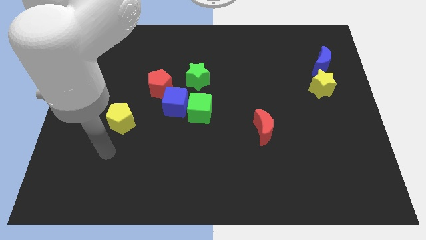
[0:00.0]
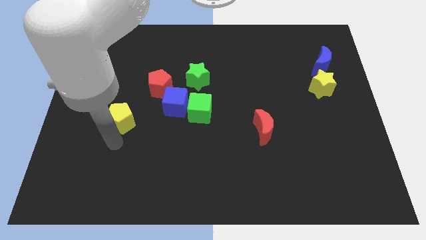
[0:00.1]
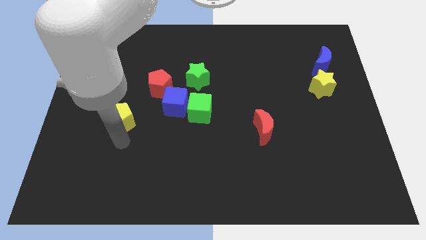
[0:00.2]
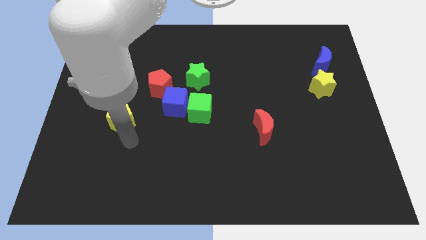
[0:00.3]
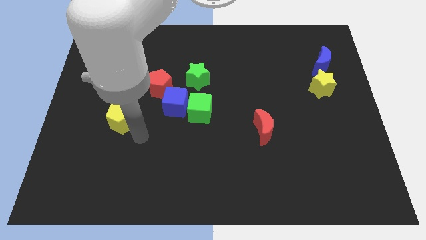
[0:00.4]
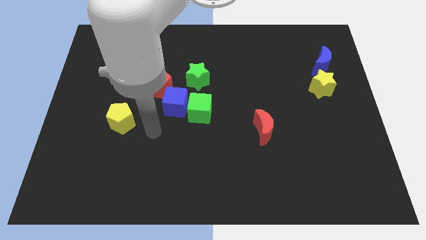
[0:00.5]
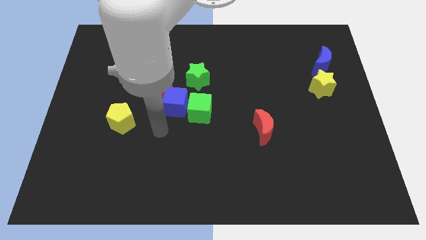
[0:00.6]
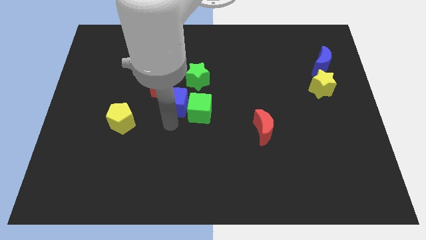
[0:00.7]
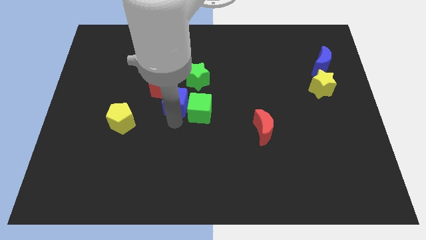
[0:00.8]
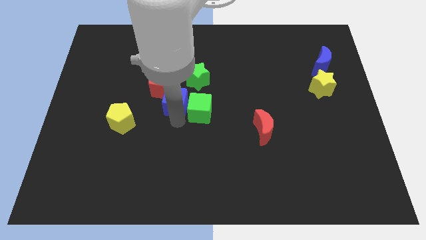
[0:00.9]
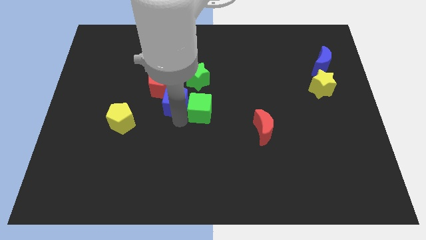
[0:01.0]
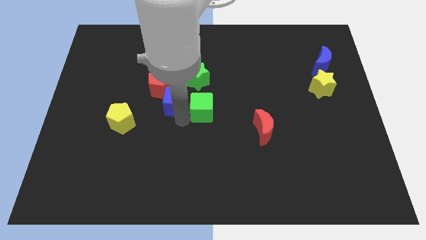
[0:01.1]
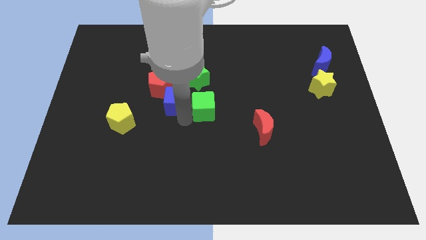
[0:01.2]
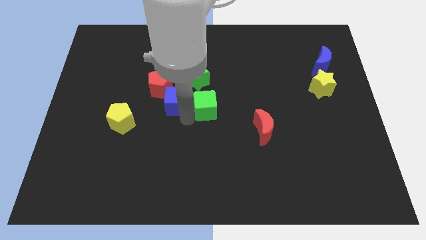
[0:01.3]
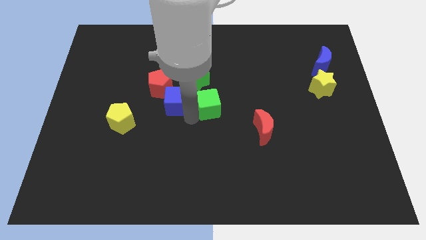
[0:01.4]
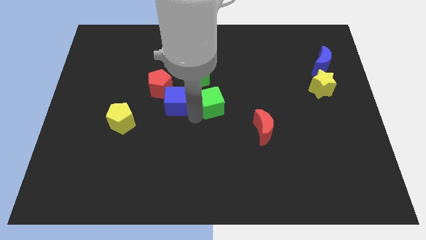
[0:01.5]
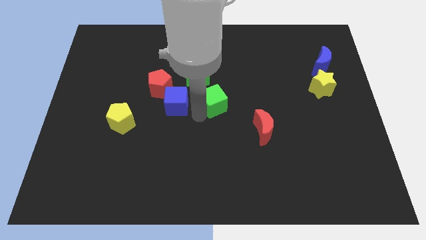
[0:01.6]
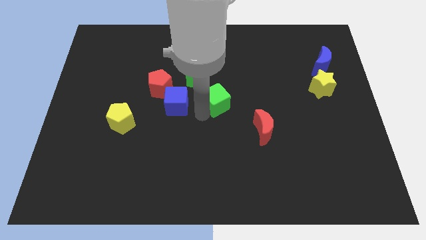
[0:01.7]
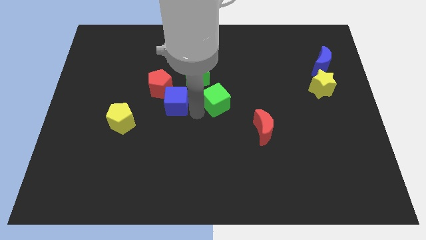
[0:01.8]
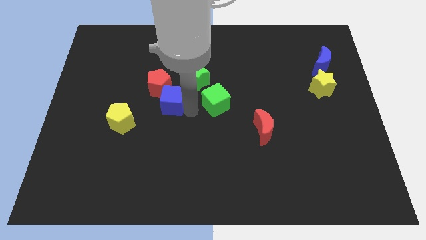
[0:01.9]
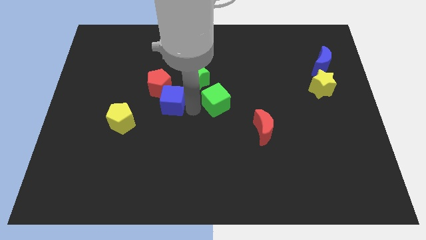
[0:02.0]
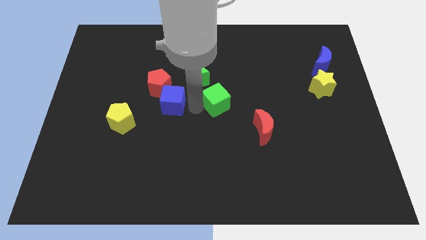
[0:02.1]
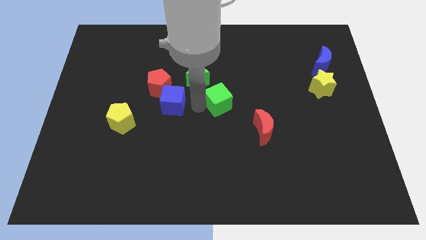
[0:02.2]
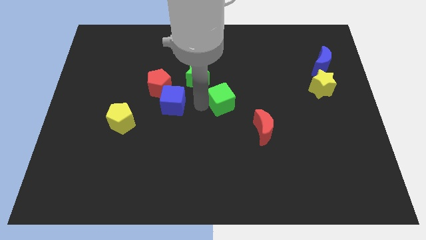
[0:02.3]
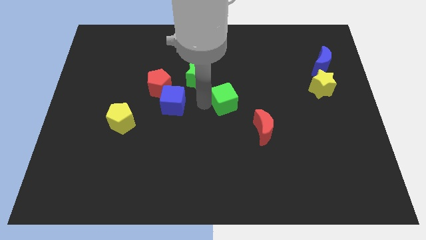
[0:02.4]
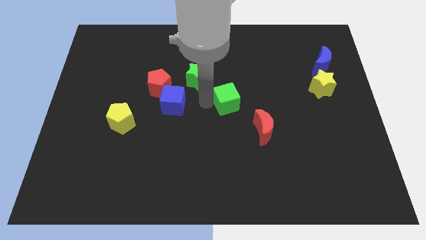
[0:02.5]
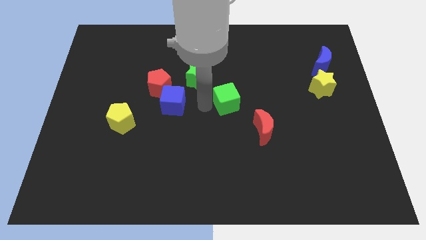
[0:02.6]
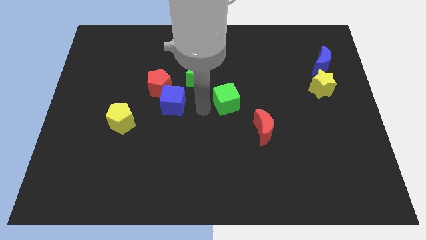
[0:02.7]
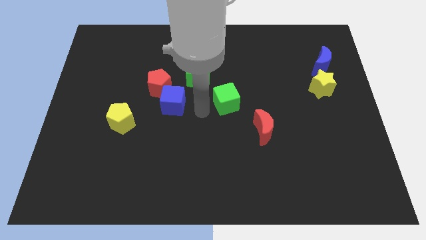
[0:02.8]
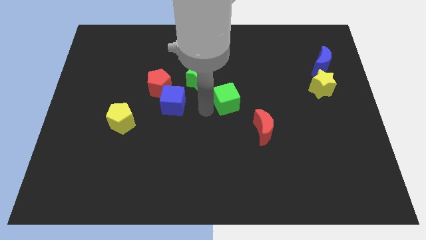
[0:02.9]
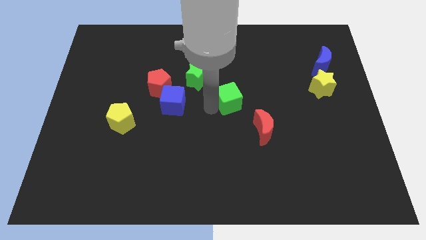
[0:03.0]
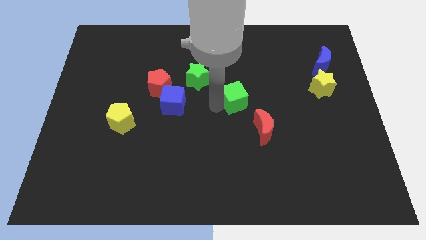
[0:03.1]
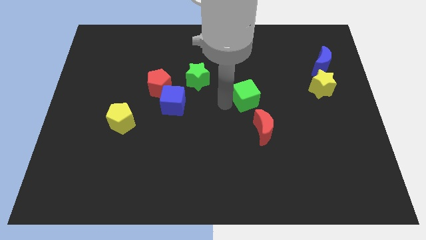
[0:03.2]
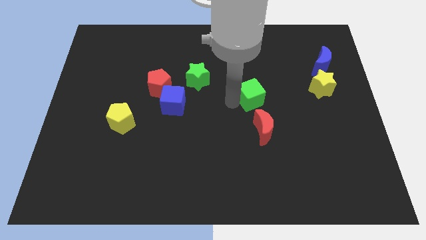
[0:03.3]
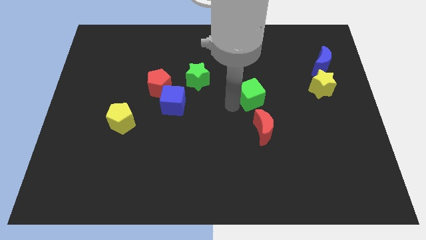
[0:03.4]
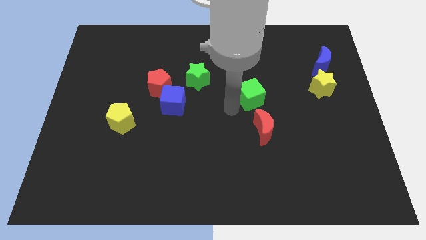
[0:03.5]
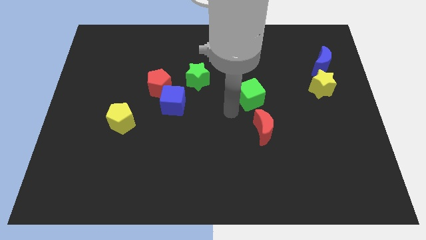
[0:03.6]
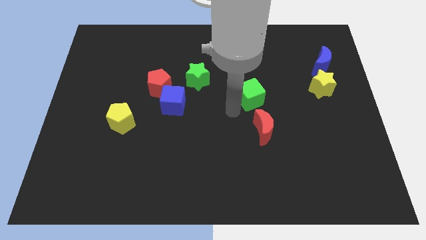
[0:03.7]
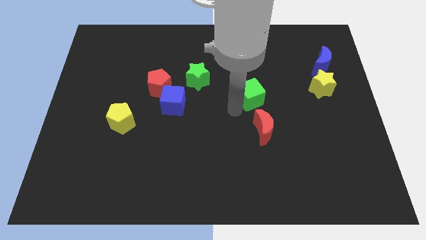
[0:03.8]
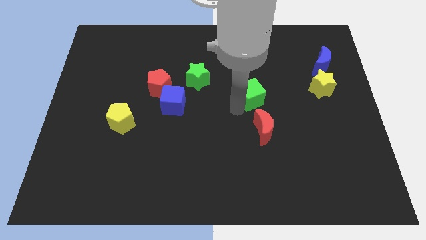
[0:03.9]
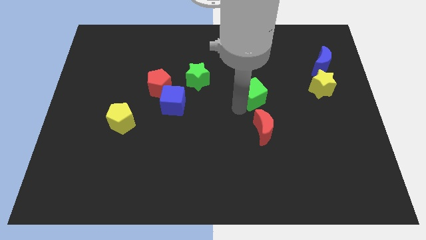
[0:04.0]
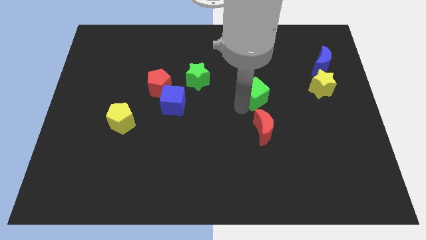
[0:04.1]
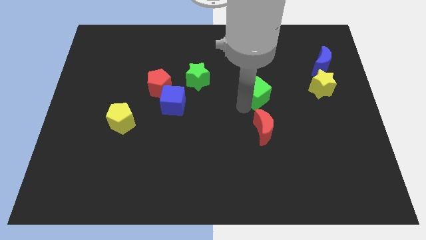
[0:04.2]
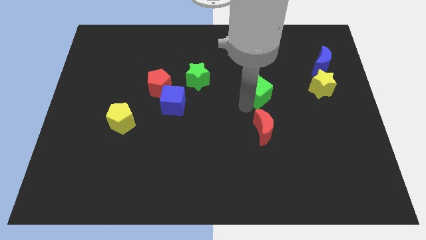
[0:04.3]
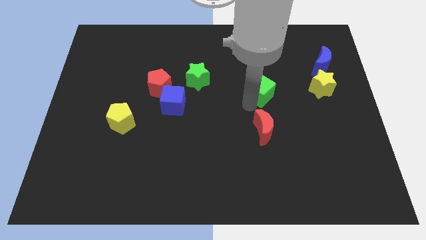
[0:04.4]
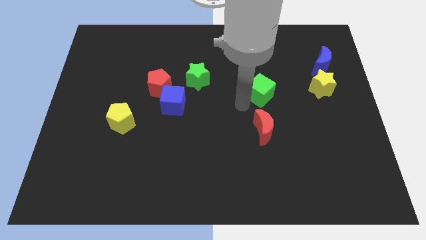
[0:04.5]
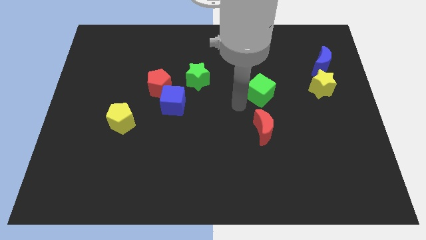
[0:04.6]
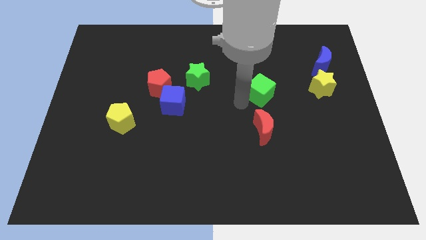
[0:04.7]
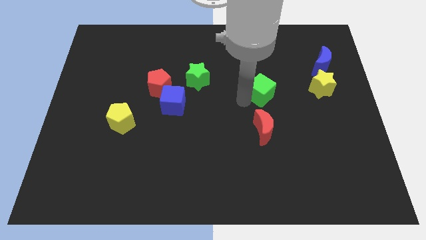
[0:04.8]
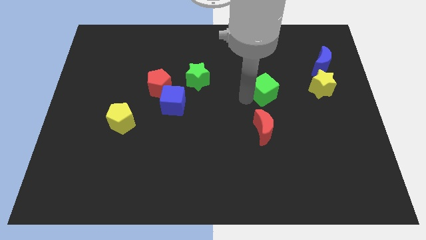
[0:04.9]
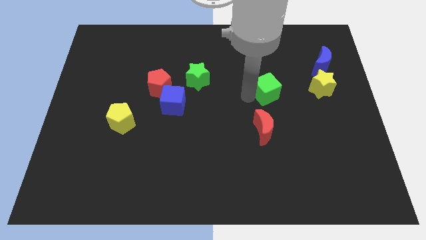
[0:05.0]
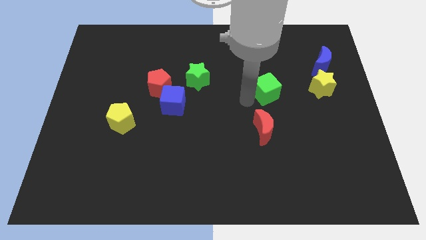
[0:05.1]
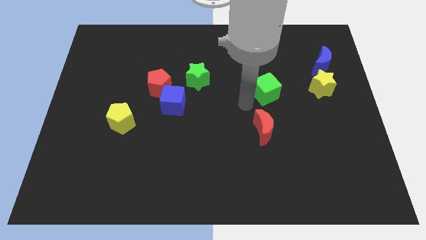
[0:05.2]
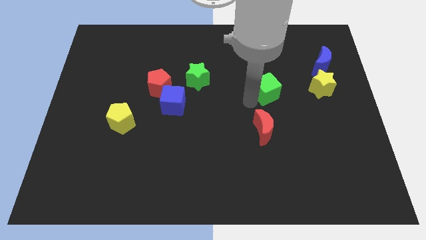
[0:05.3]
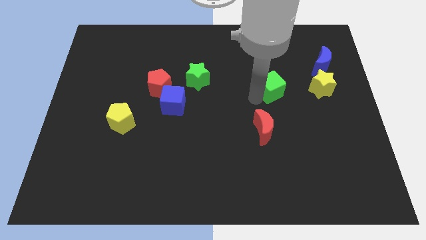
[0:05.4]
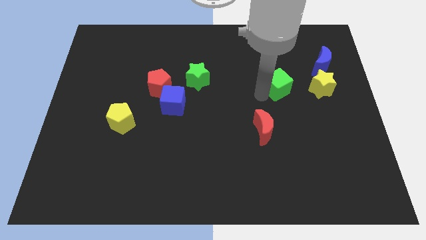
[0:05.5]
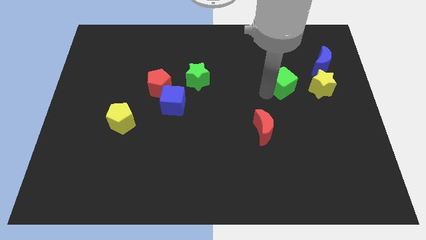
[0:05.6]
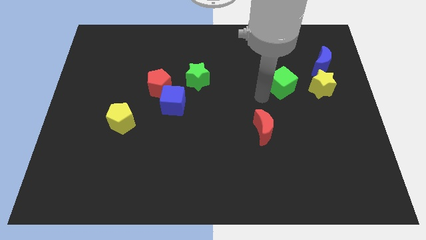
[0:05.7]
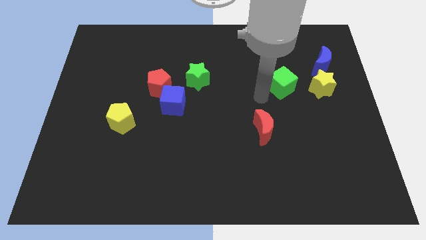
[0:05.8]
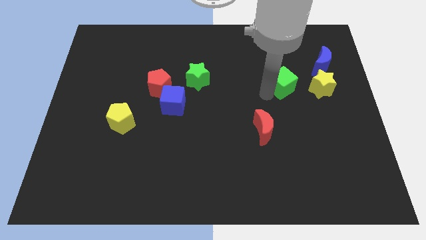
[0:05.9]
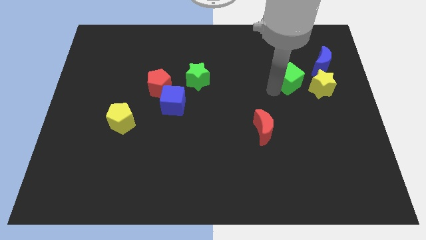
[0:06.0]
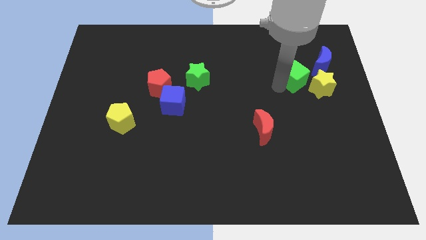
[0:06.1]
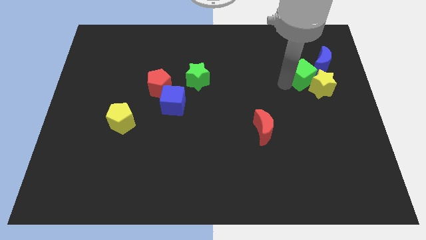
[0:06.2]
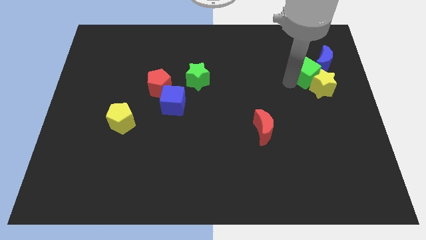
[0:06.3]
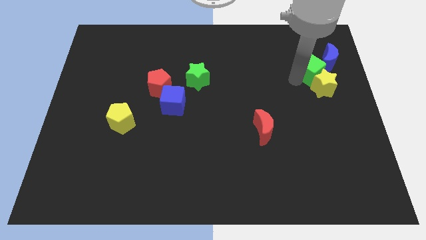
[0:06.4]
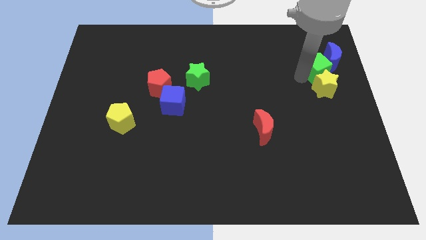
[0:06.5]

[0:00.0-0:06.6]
push the green cube next to the blue moon

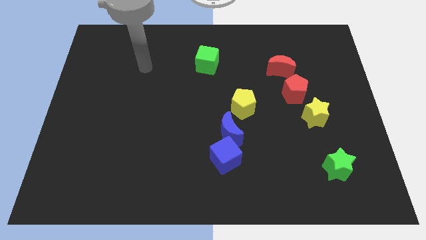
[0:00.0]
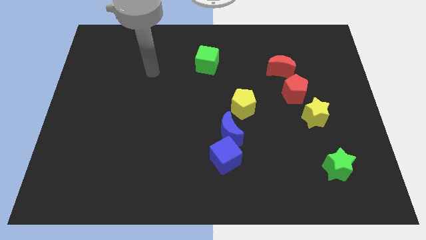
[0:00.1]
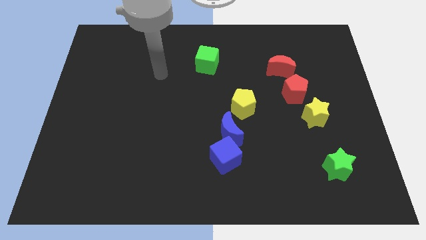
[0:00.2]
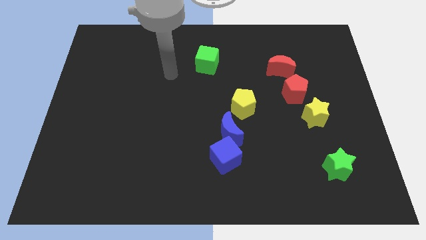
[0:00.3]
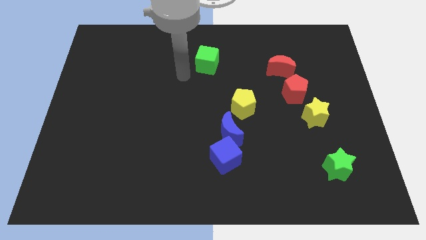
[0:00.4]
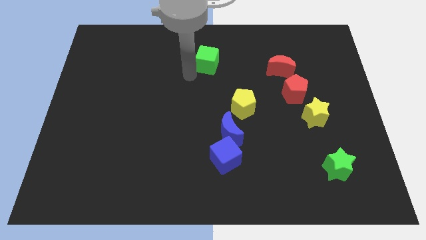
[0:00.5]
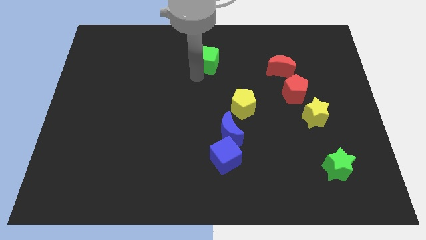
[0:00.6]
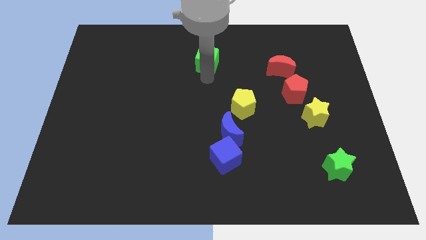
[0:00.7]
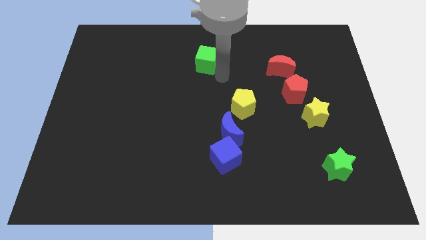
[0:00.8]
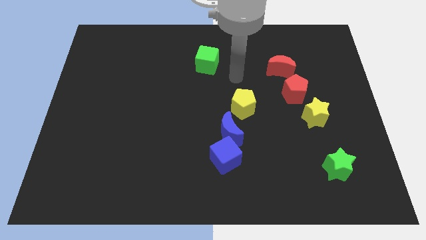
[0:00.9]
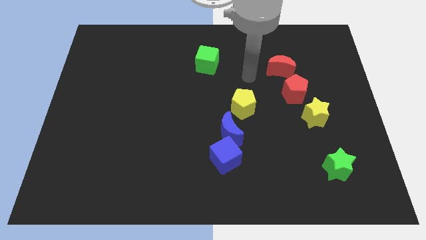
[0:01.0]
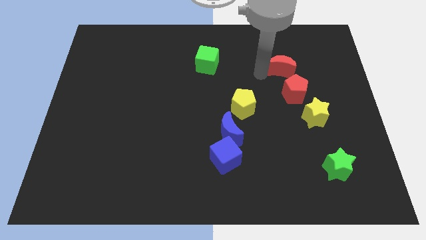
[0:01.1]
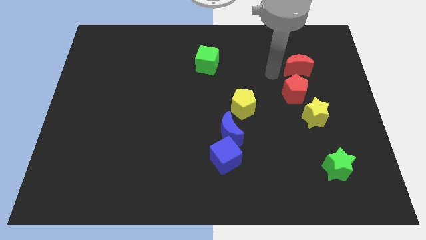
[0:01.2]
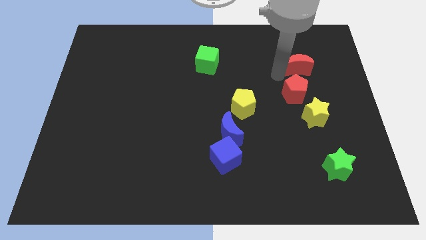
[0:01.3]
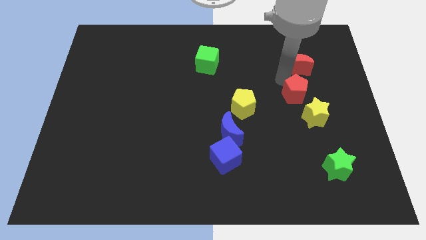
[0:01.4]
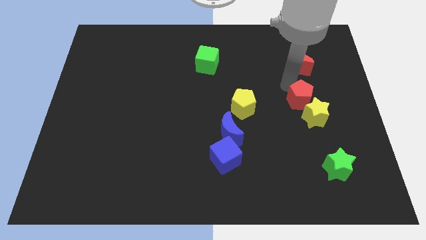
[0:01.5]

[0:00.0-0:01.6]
put the red pentagon to the yellow star
